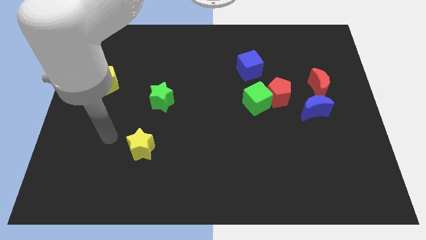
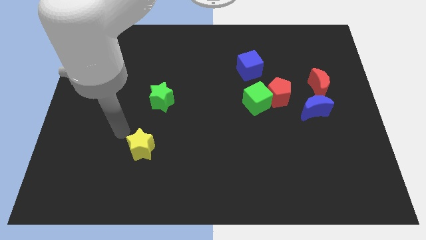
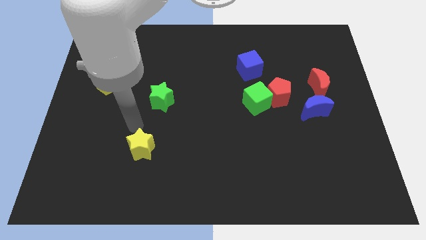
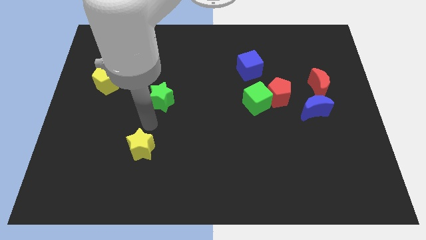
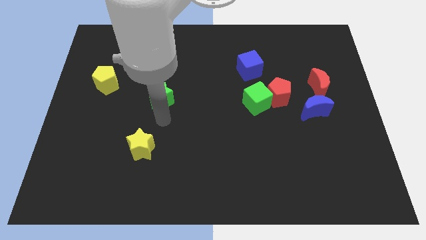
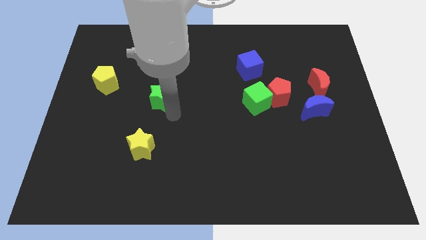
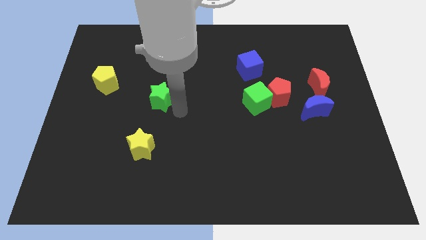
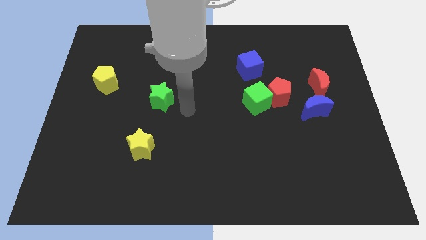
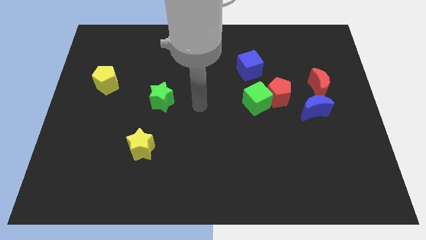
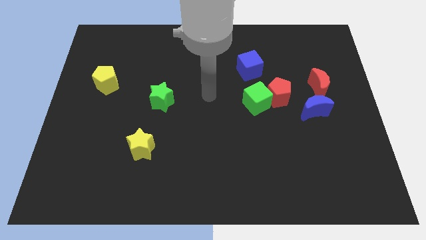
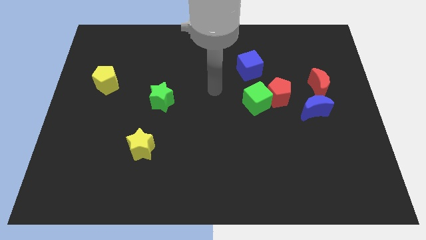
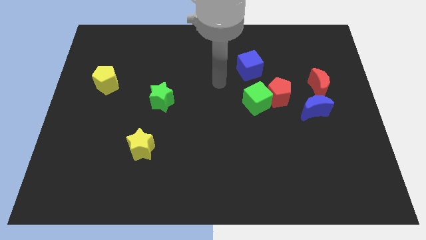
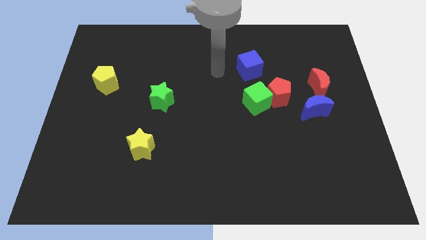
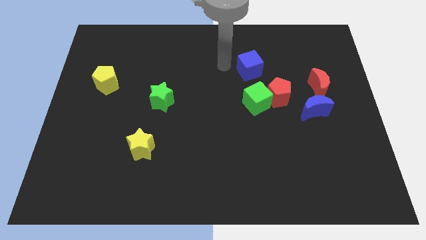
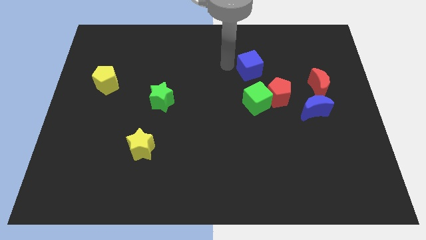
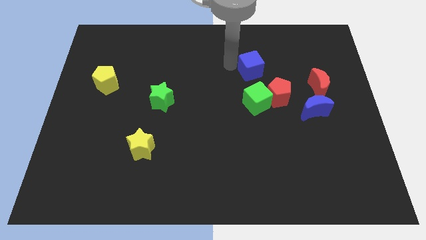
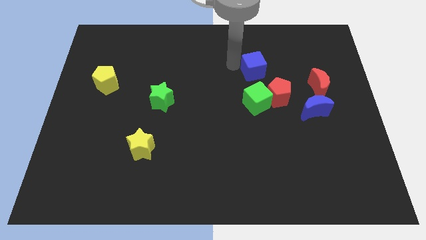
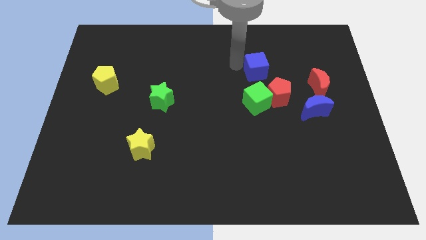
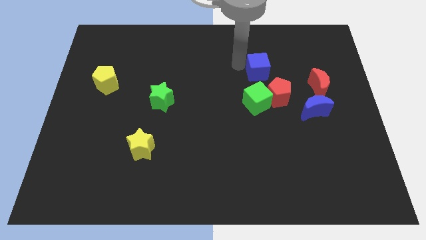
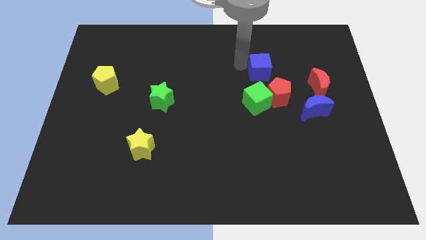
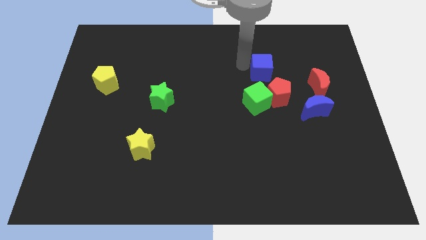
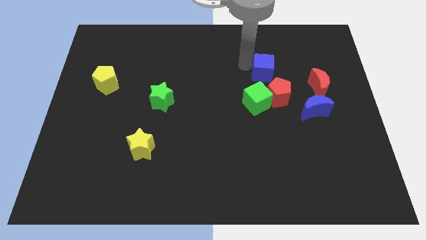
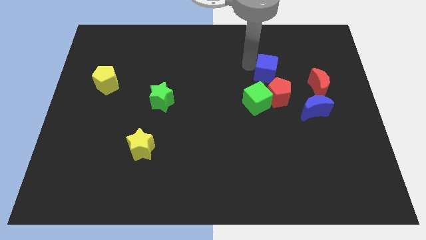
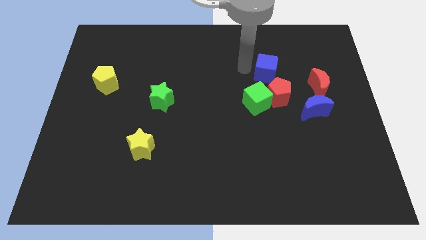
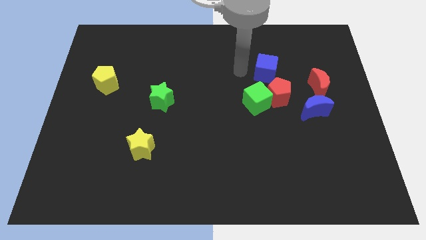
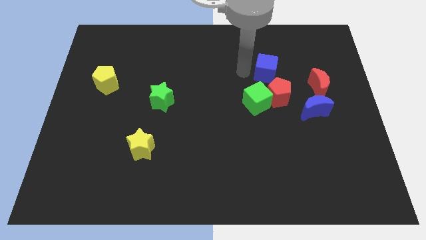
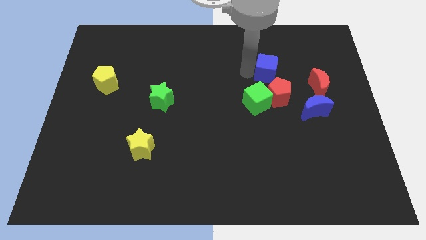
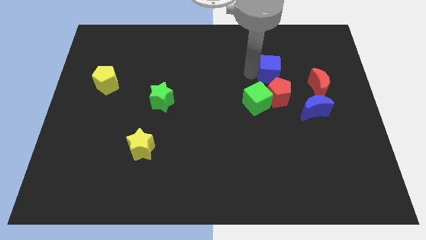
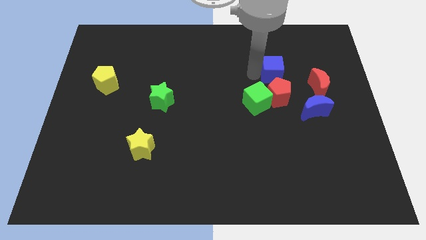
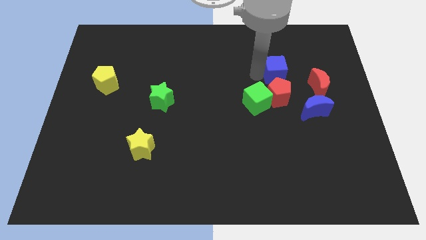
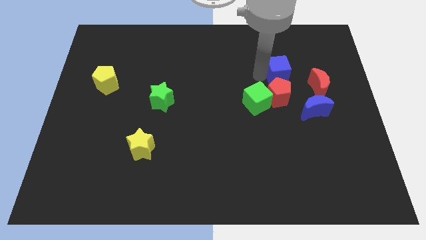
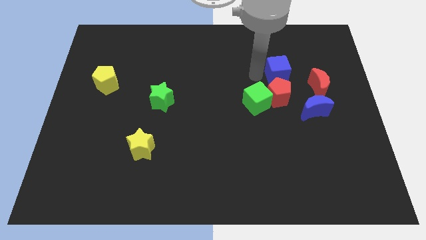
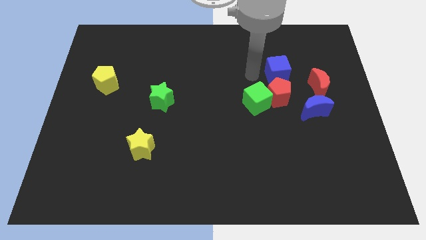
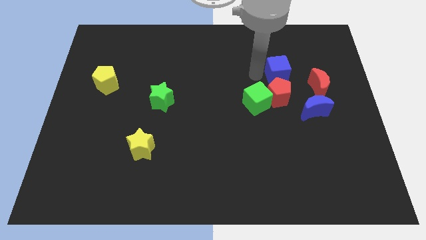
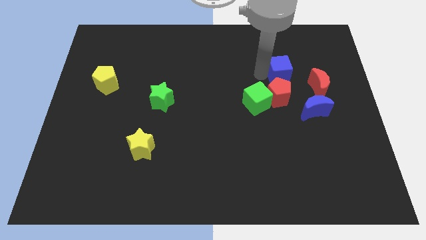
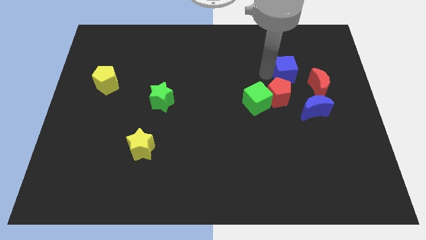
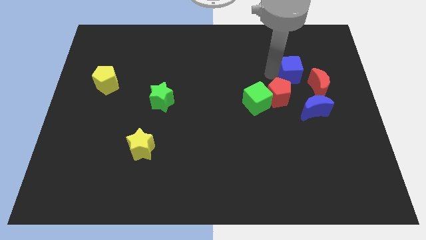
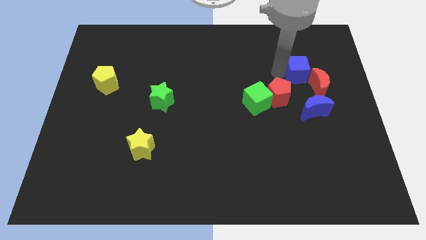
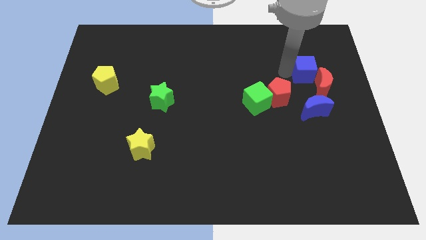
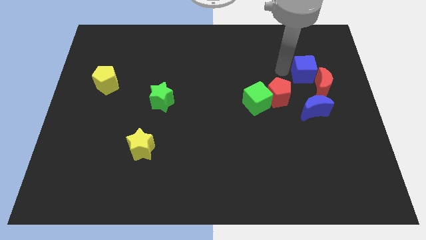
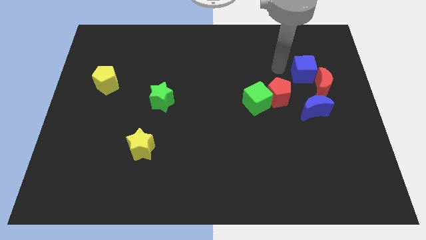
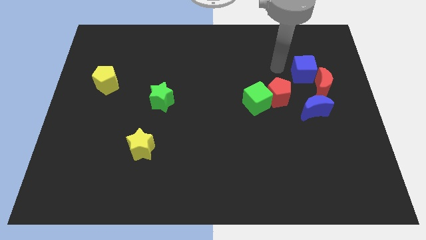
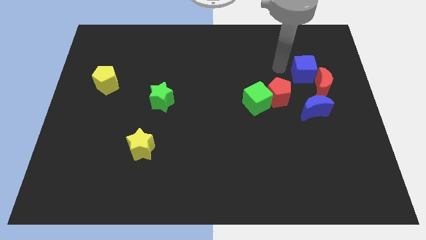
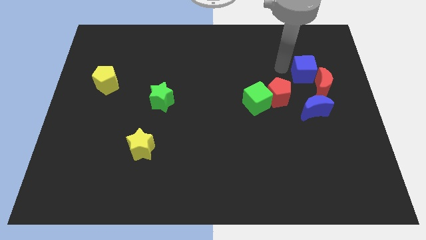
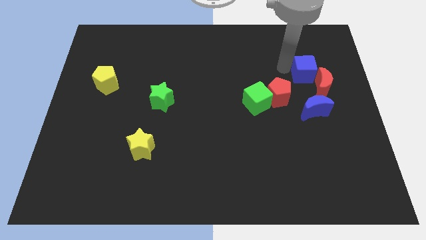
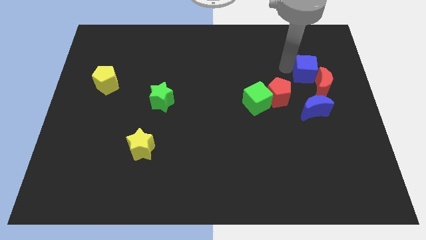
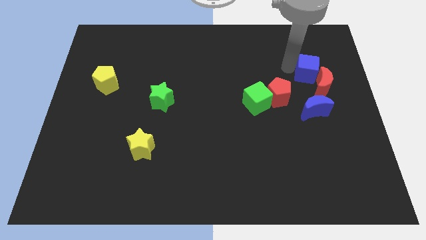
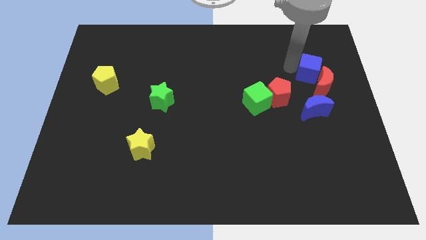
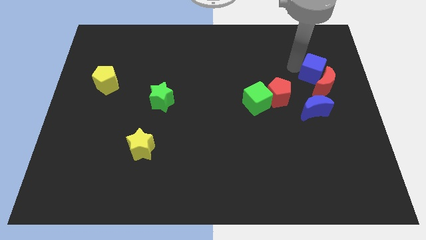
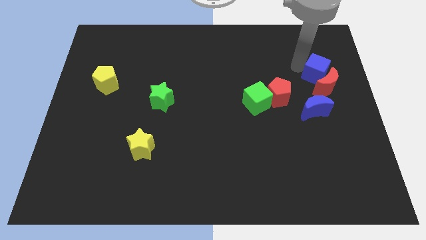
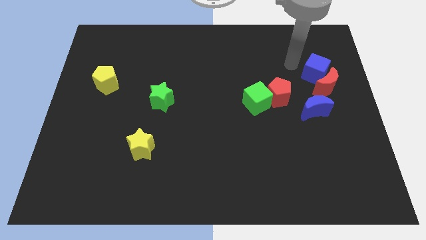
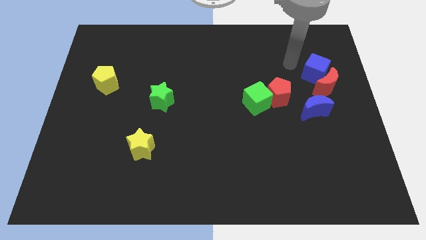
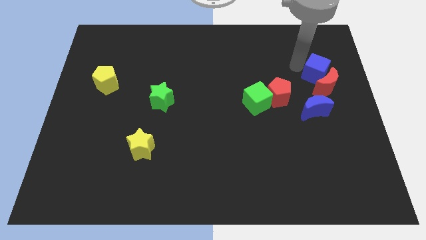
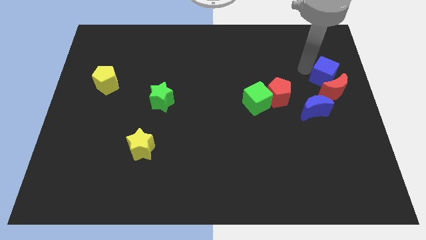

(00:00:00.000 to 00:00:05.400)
slide the blue cube to the center right
